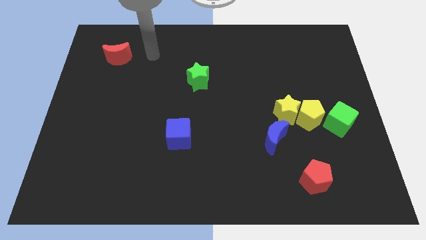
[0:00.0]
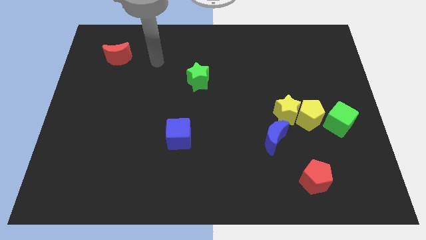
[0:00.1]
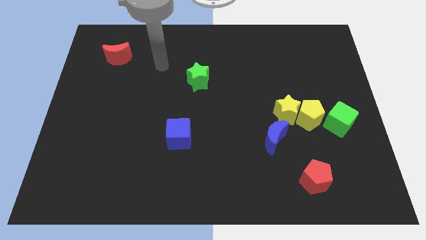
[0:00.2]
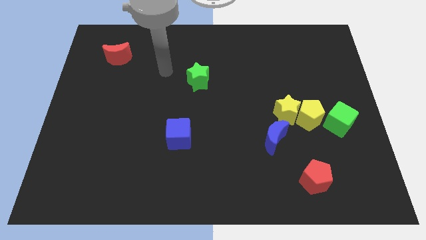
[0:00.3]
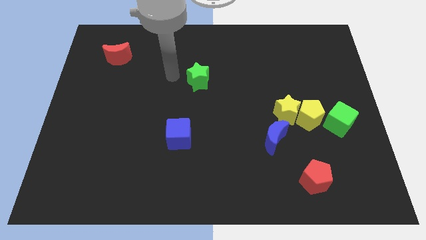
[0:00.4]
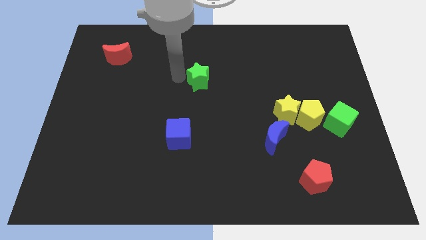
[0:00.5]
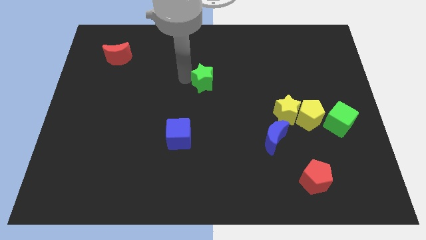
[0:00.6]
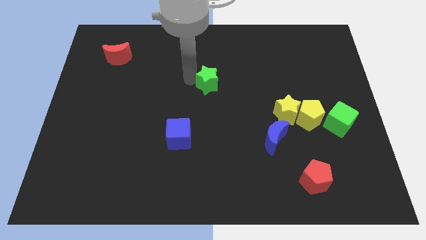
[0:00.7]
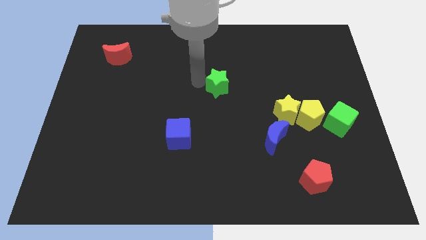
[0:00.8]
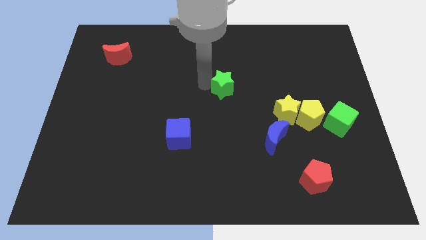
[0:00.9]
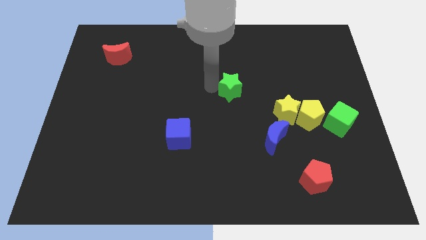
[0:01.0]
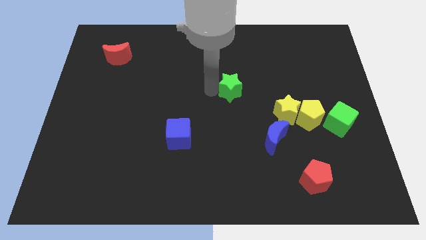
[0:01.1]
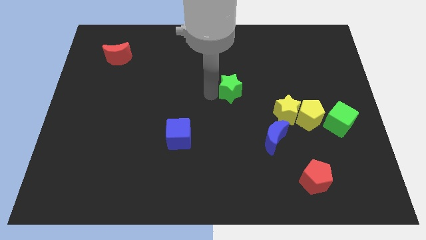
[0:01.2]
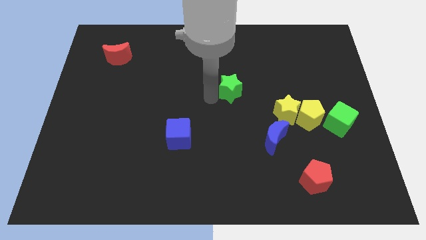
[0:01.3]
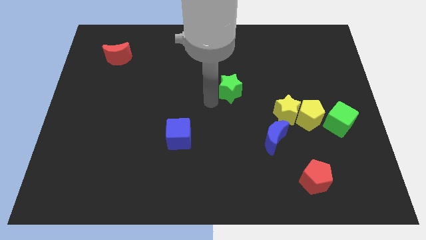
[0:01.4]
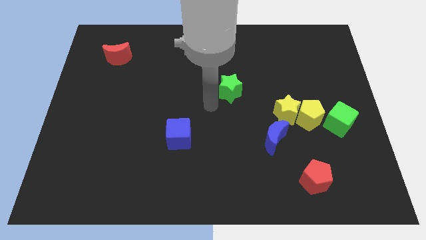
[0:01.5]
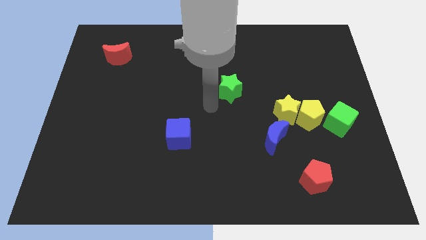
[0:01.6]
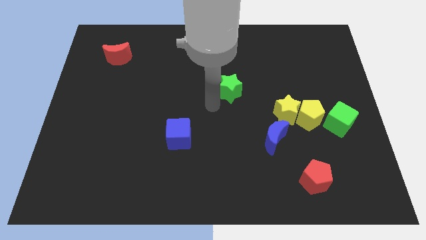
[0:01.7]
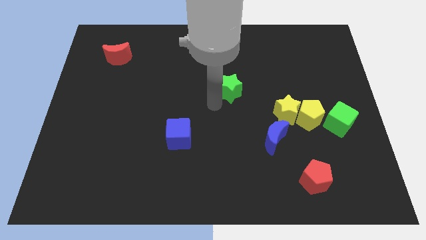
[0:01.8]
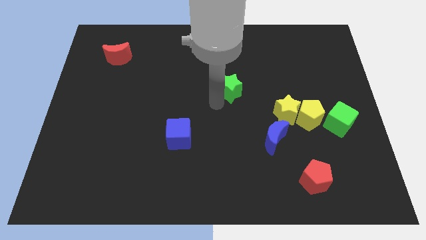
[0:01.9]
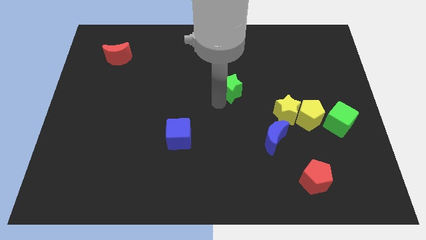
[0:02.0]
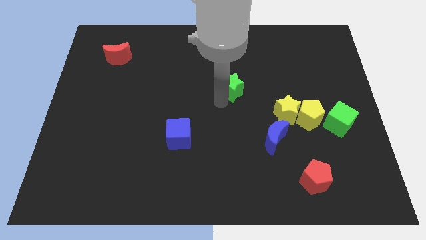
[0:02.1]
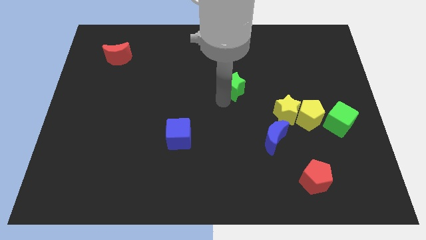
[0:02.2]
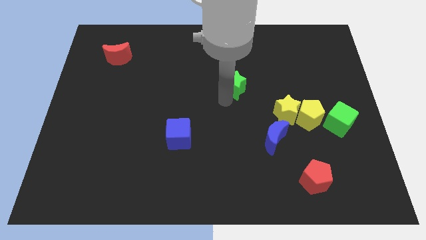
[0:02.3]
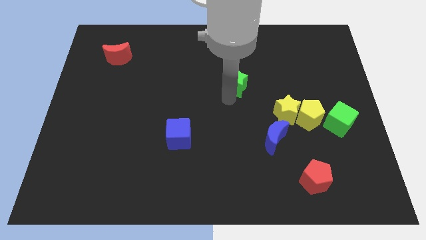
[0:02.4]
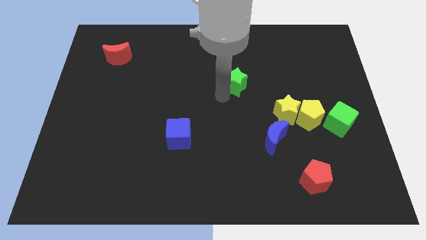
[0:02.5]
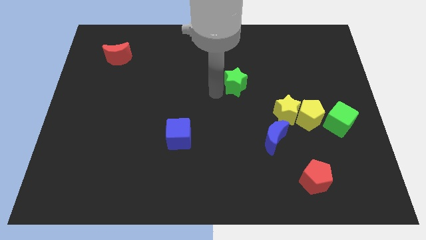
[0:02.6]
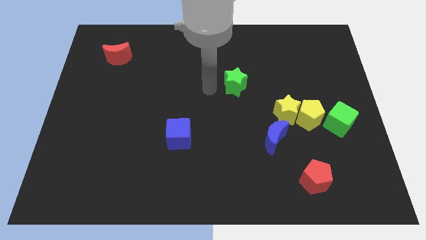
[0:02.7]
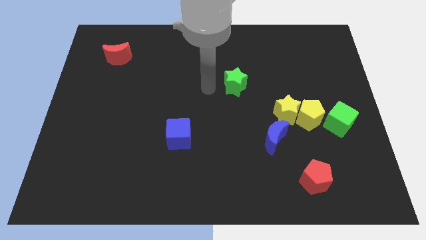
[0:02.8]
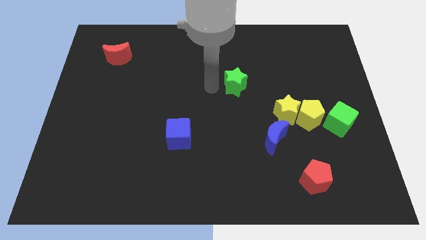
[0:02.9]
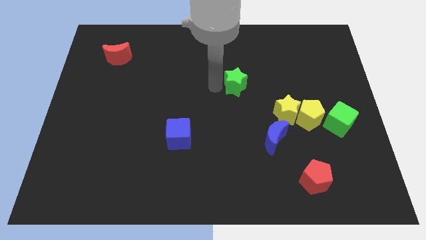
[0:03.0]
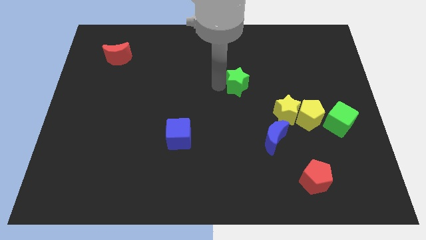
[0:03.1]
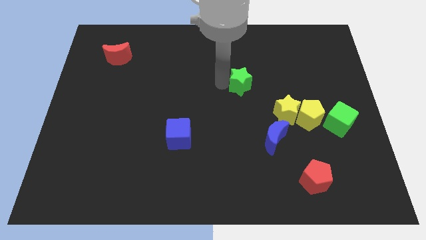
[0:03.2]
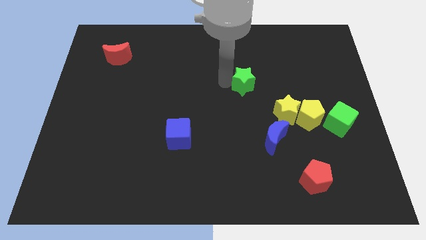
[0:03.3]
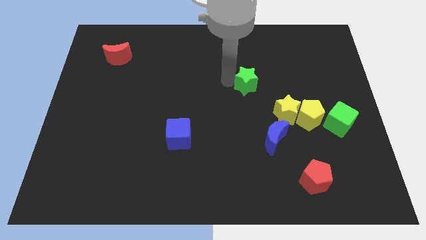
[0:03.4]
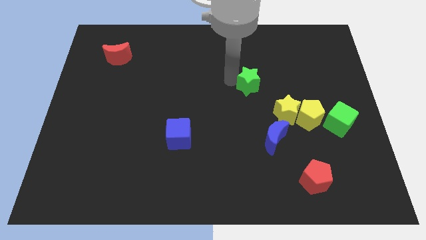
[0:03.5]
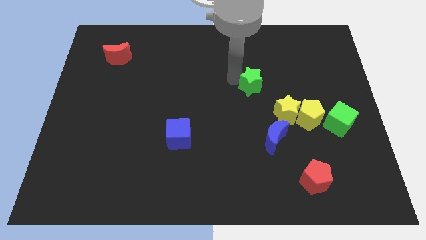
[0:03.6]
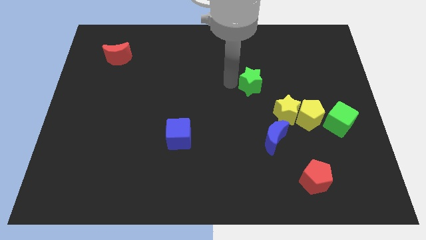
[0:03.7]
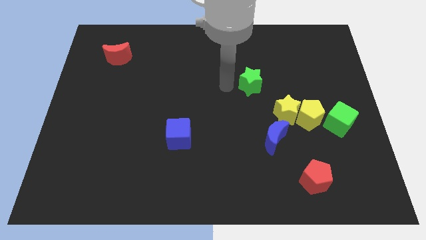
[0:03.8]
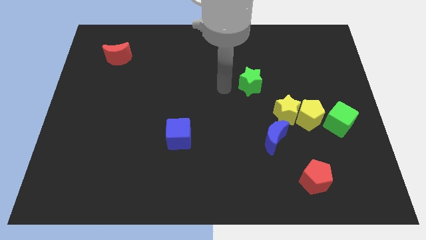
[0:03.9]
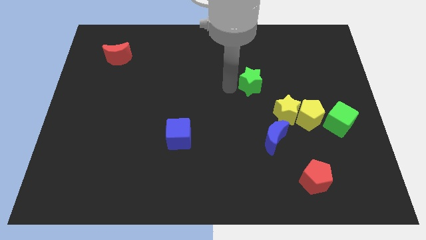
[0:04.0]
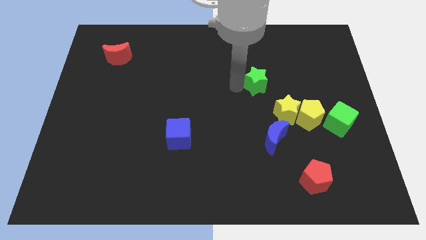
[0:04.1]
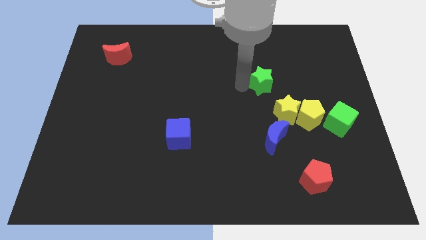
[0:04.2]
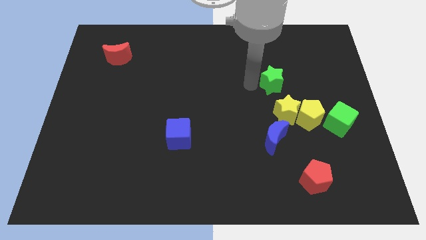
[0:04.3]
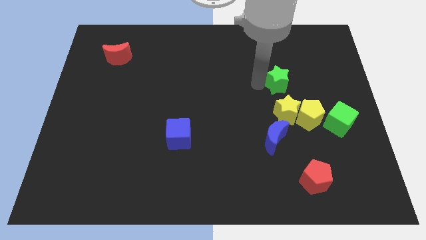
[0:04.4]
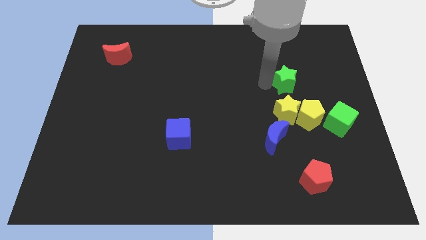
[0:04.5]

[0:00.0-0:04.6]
slide the green star to the right

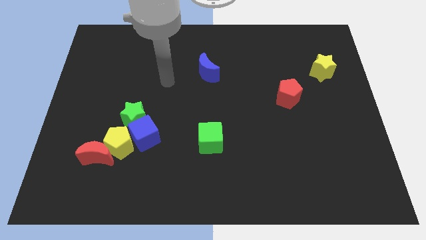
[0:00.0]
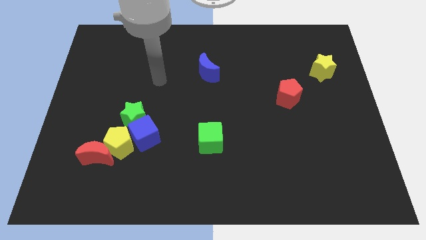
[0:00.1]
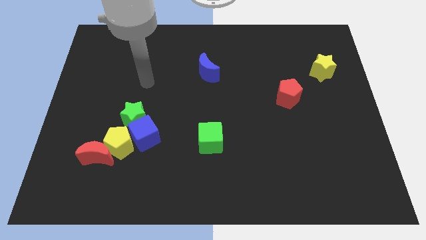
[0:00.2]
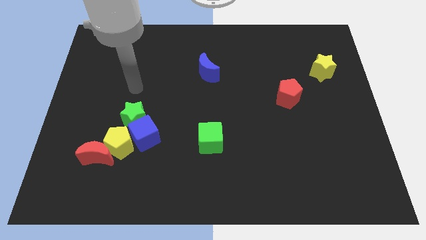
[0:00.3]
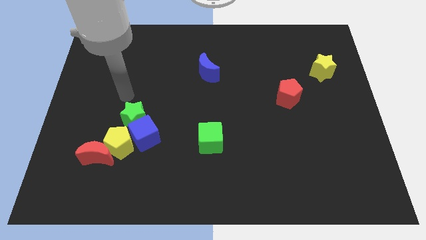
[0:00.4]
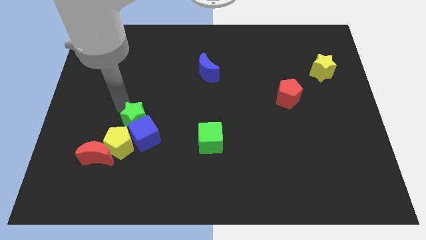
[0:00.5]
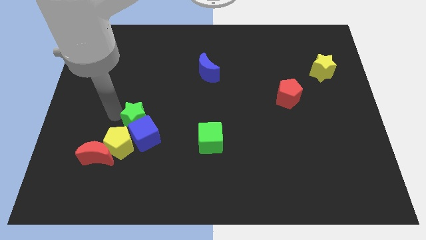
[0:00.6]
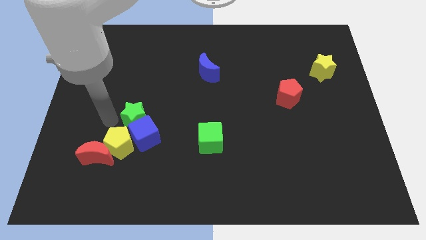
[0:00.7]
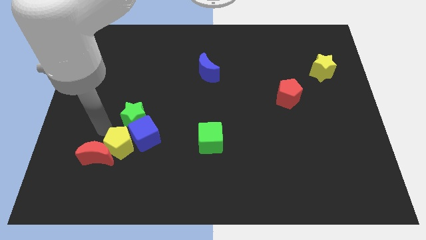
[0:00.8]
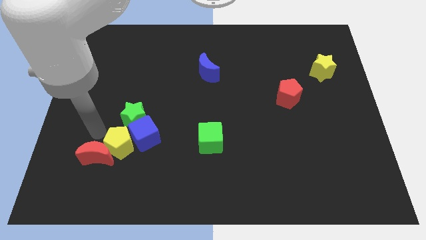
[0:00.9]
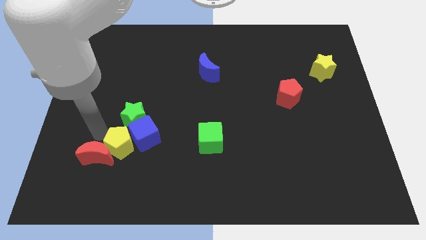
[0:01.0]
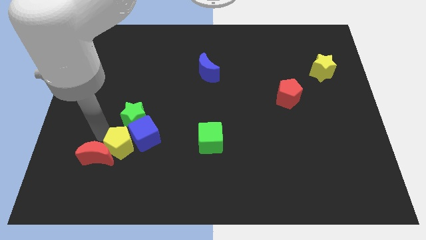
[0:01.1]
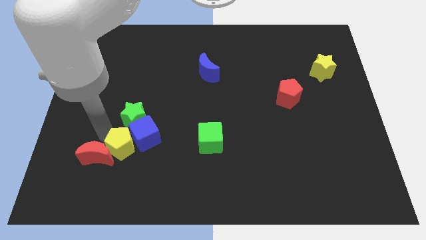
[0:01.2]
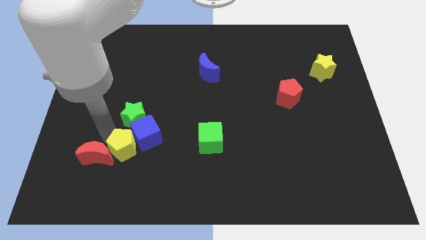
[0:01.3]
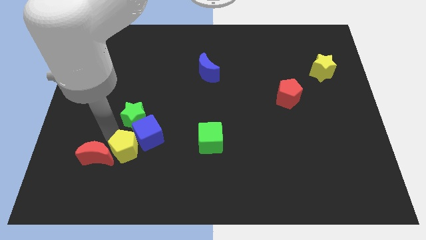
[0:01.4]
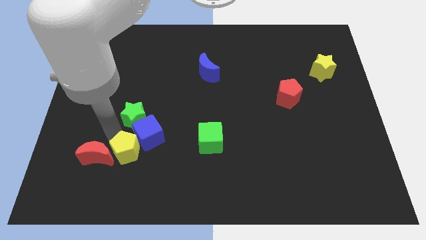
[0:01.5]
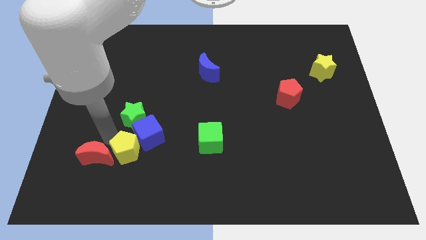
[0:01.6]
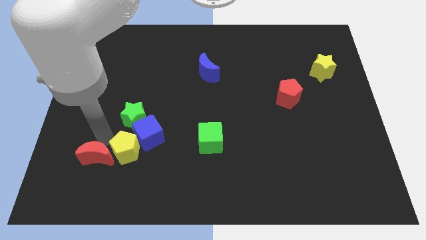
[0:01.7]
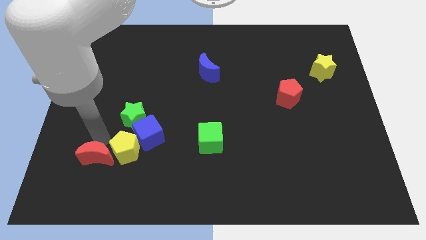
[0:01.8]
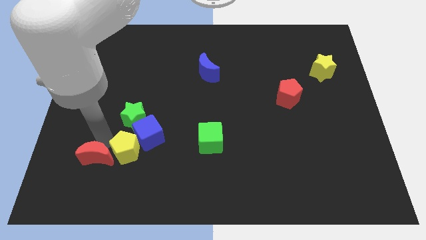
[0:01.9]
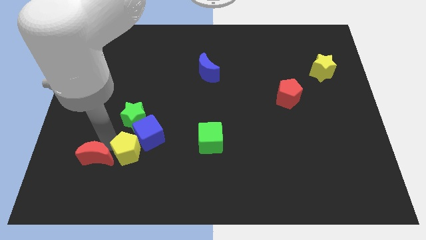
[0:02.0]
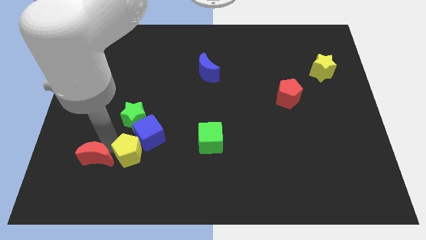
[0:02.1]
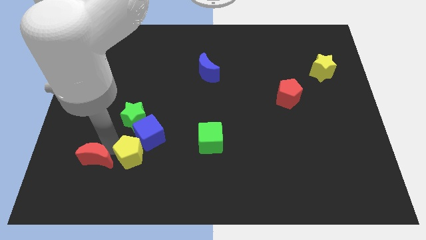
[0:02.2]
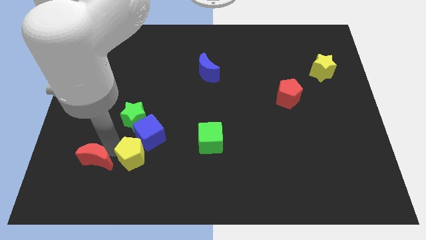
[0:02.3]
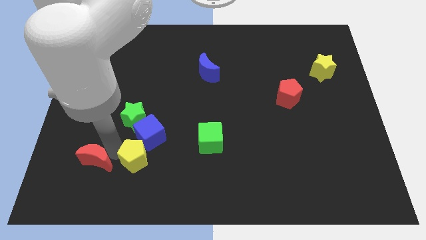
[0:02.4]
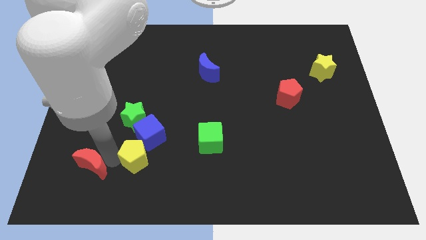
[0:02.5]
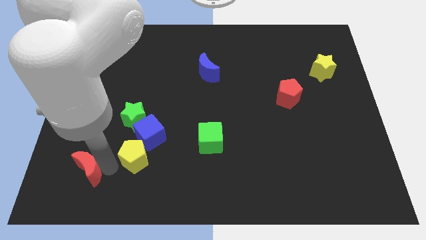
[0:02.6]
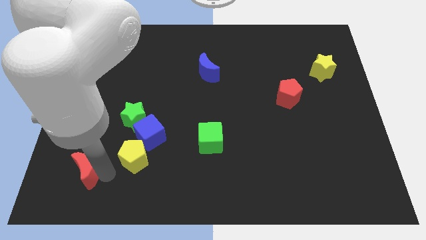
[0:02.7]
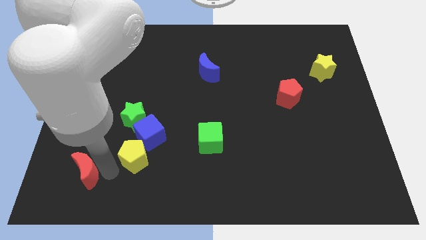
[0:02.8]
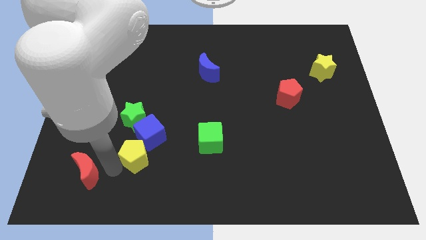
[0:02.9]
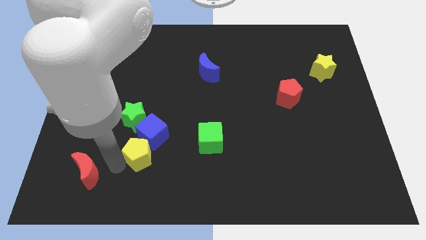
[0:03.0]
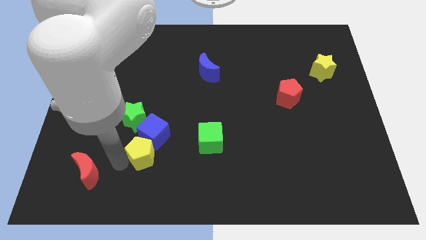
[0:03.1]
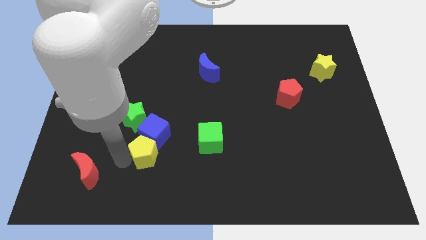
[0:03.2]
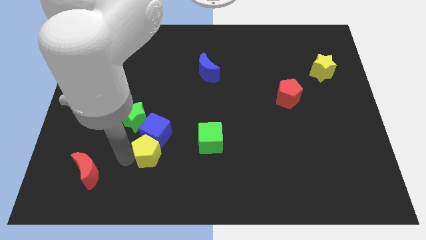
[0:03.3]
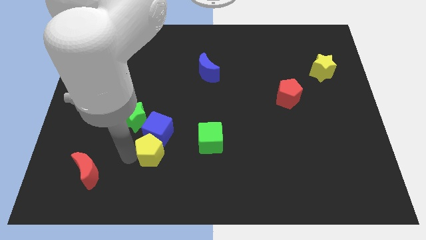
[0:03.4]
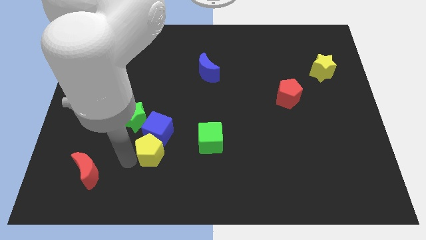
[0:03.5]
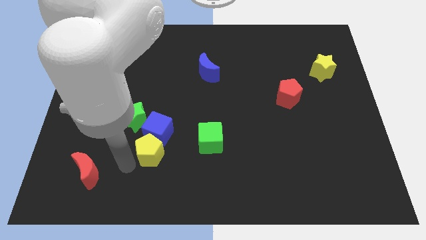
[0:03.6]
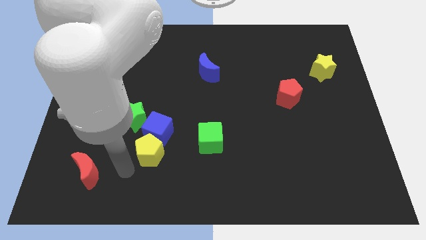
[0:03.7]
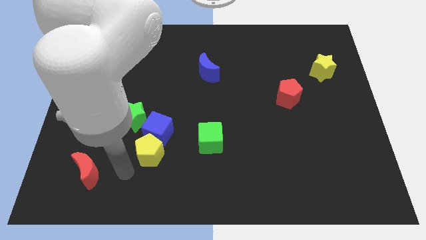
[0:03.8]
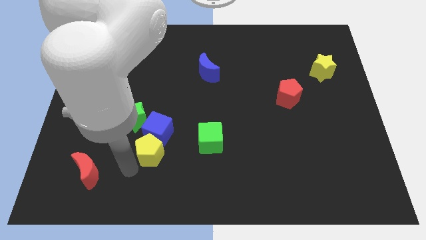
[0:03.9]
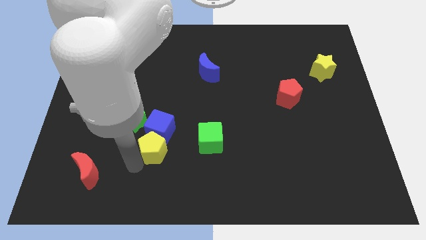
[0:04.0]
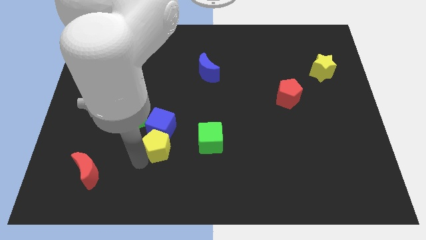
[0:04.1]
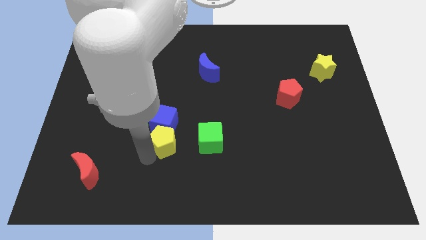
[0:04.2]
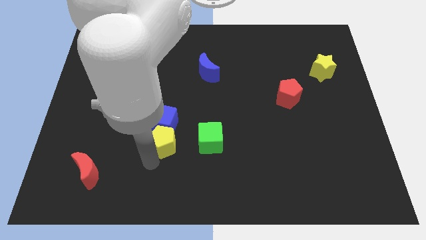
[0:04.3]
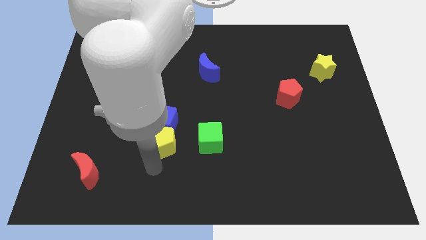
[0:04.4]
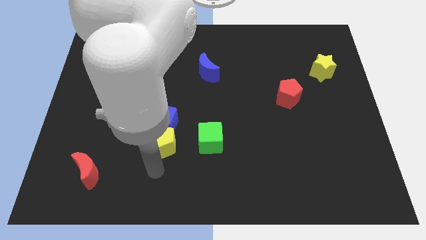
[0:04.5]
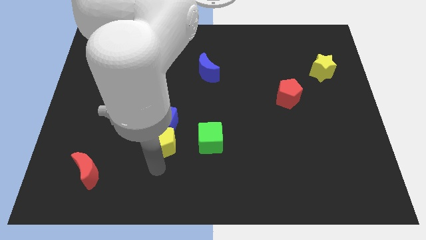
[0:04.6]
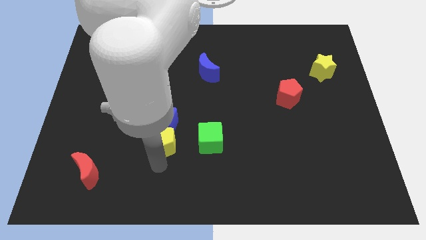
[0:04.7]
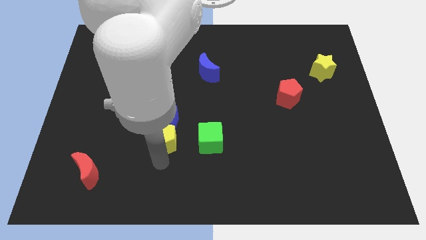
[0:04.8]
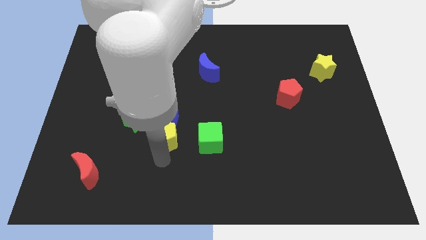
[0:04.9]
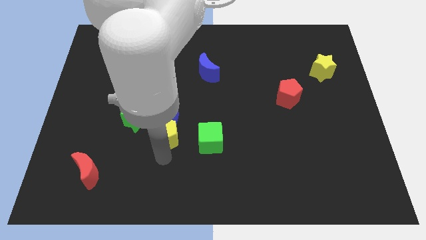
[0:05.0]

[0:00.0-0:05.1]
slide the yellow pentagon somewhat up and right diagonally
